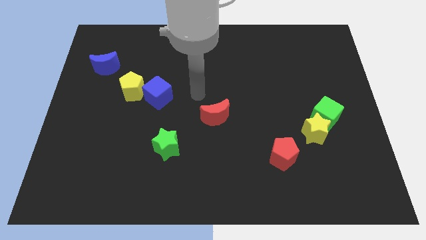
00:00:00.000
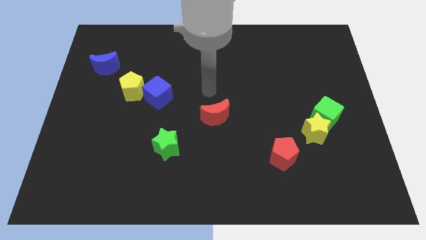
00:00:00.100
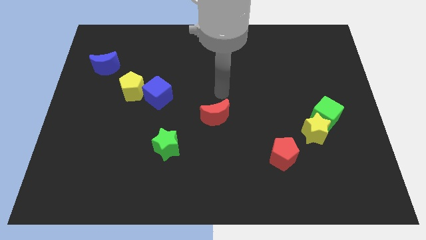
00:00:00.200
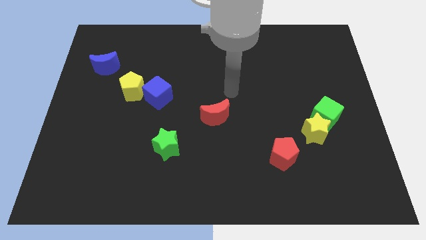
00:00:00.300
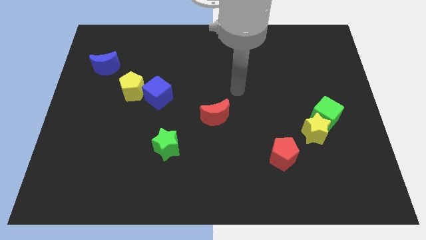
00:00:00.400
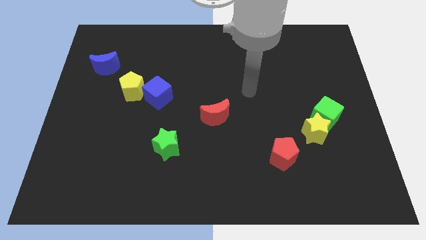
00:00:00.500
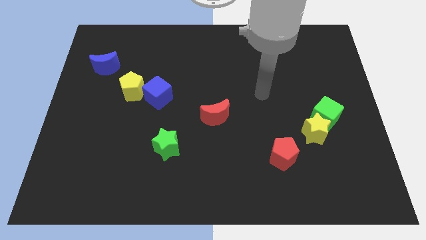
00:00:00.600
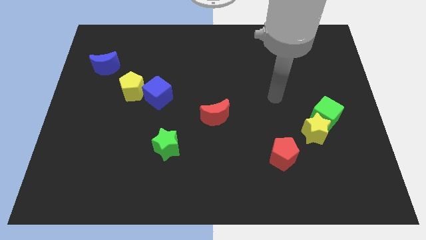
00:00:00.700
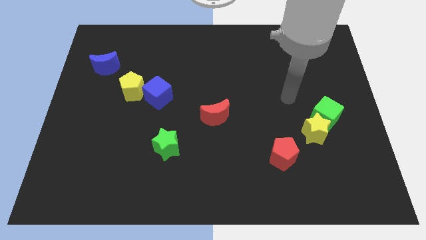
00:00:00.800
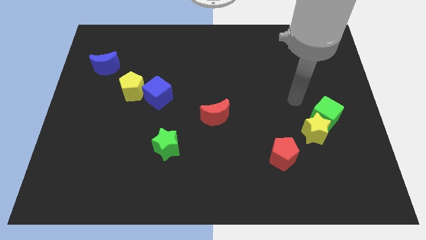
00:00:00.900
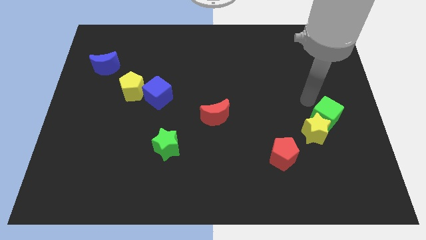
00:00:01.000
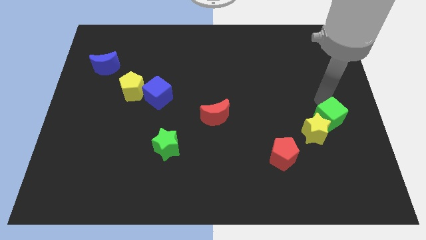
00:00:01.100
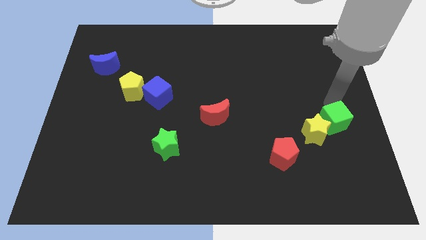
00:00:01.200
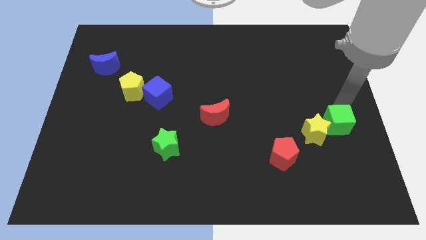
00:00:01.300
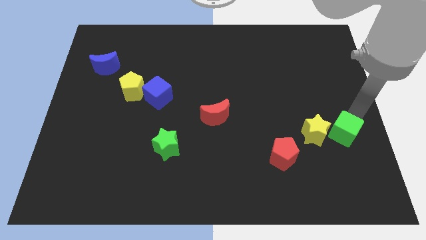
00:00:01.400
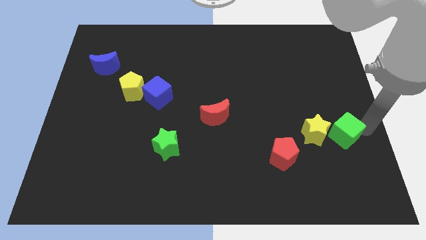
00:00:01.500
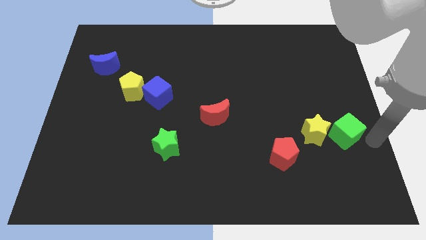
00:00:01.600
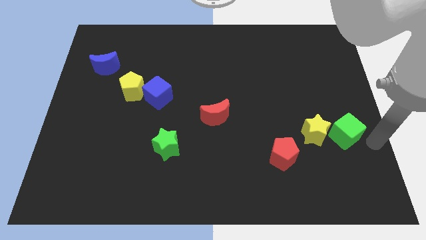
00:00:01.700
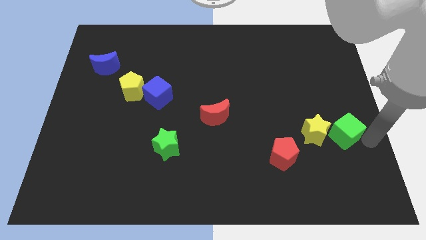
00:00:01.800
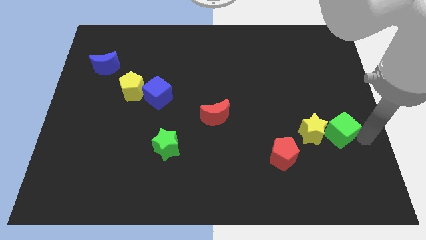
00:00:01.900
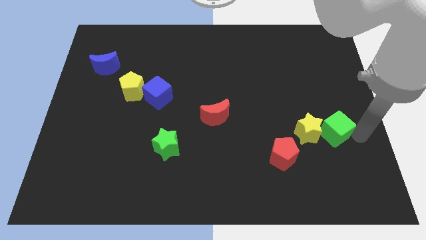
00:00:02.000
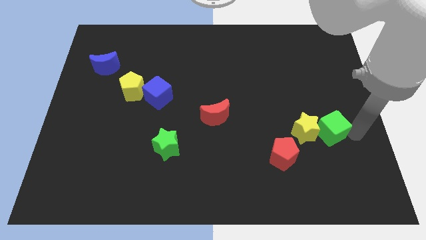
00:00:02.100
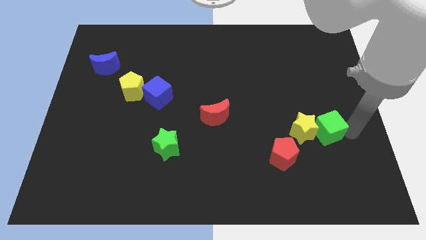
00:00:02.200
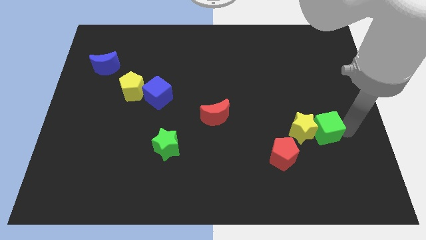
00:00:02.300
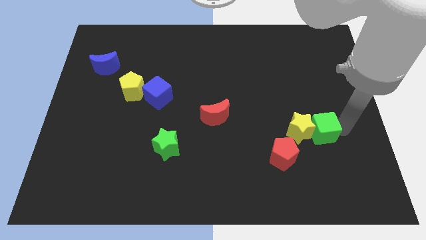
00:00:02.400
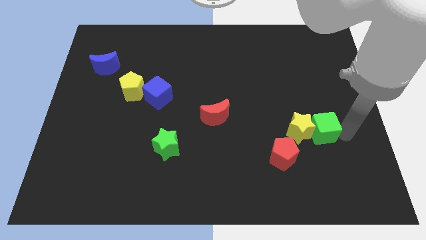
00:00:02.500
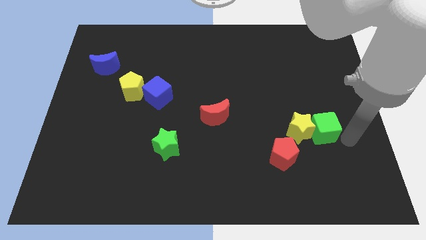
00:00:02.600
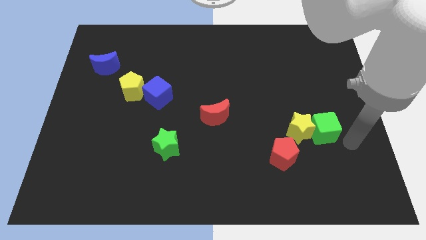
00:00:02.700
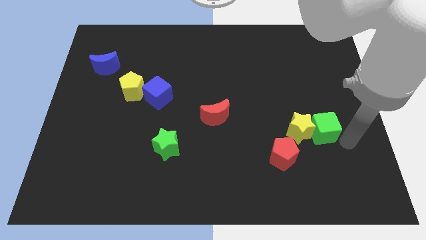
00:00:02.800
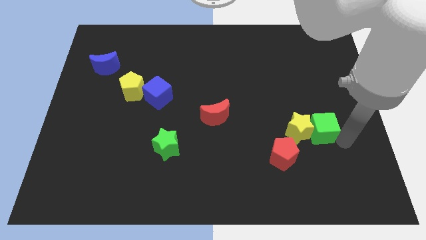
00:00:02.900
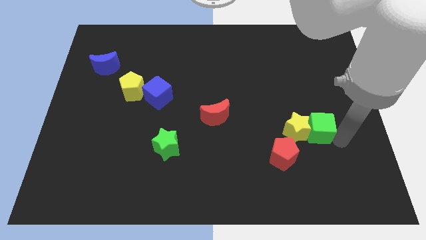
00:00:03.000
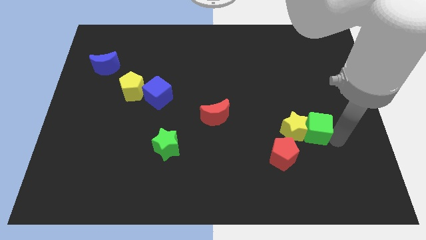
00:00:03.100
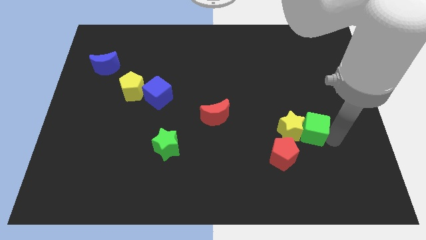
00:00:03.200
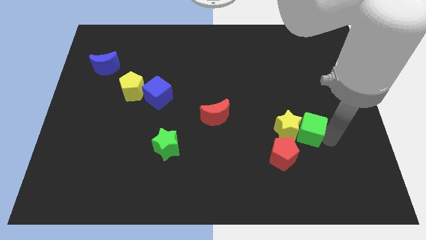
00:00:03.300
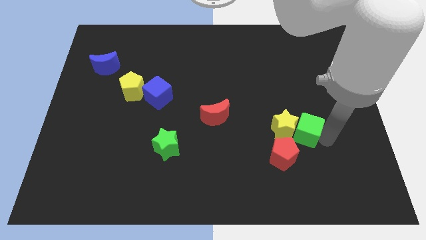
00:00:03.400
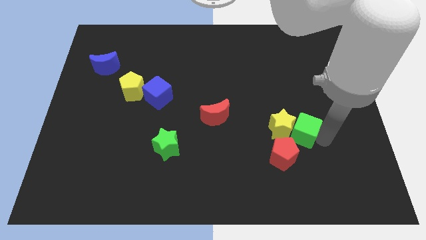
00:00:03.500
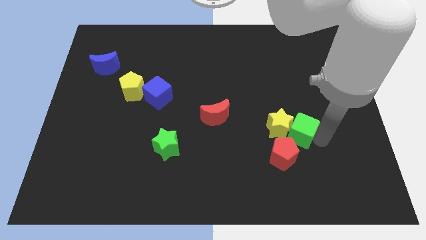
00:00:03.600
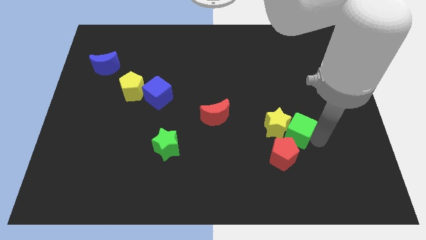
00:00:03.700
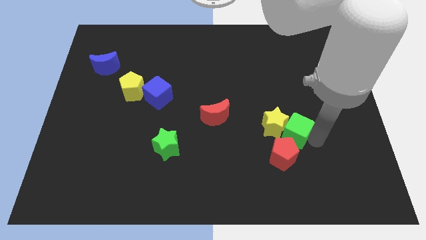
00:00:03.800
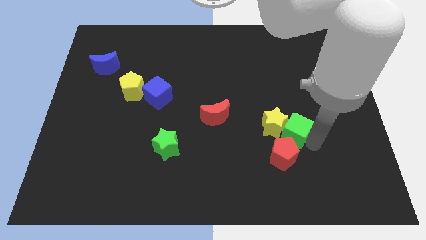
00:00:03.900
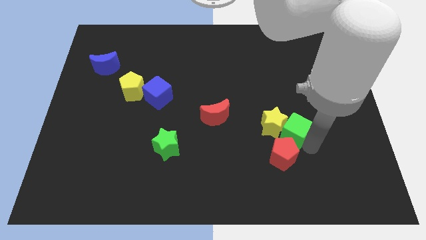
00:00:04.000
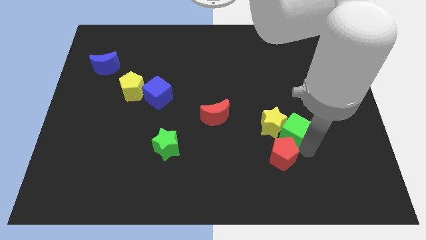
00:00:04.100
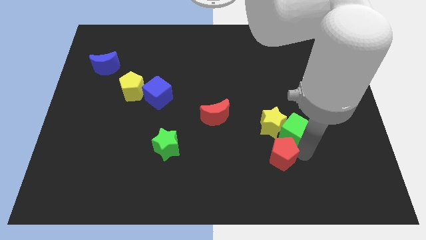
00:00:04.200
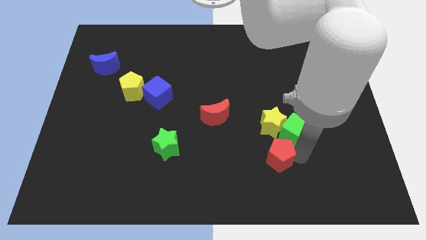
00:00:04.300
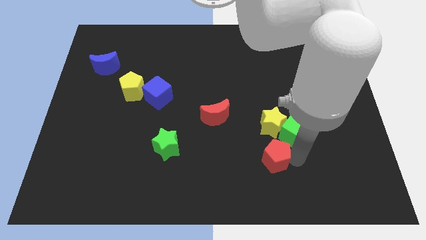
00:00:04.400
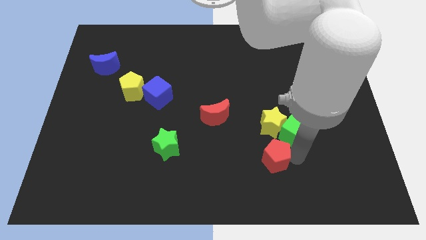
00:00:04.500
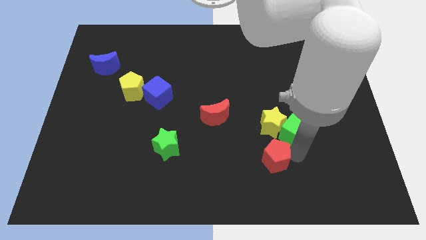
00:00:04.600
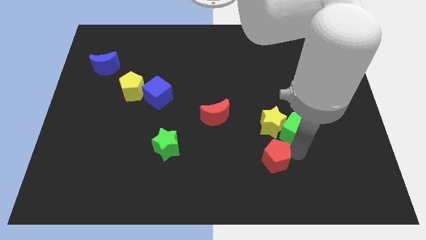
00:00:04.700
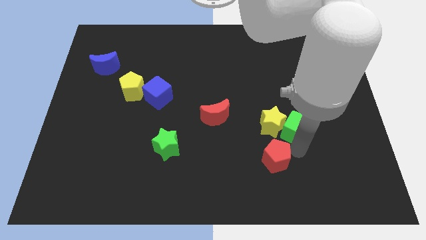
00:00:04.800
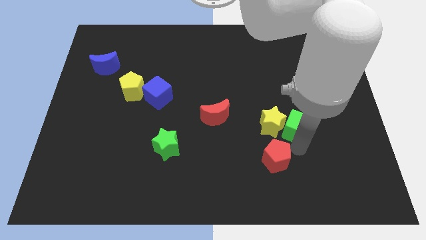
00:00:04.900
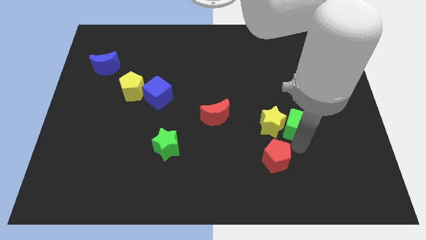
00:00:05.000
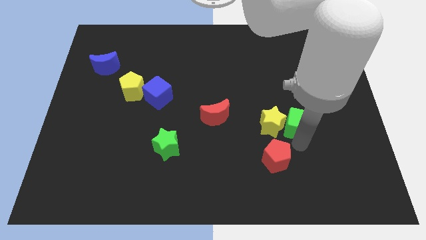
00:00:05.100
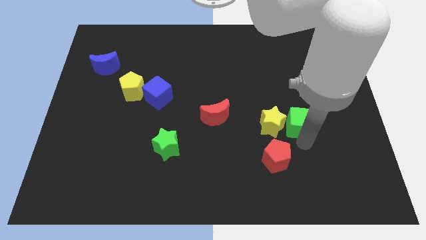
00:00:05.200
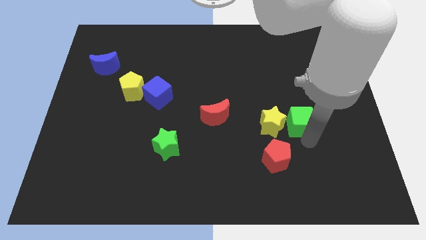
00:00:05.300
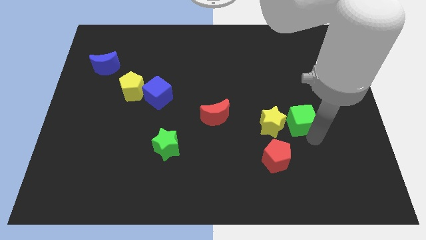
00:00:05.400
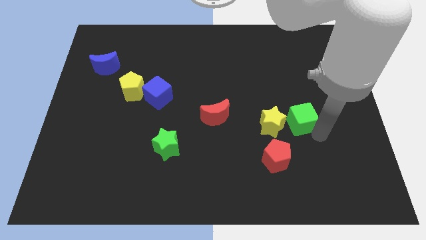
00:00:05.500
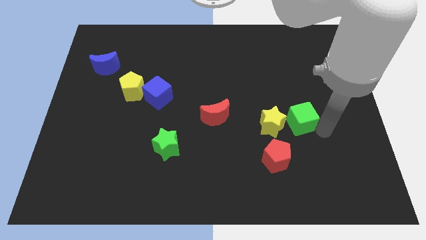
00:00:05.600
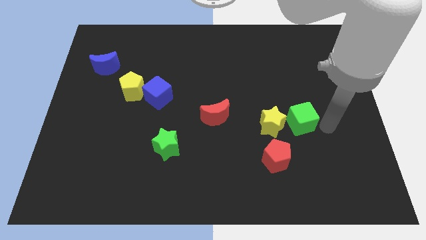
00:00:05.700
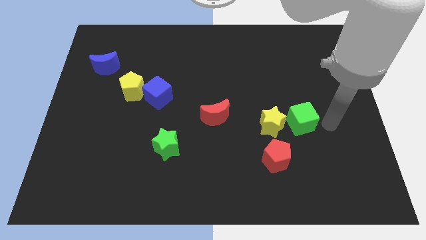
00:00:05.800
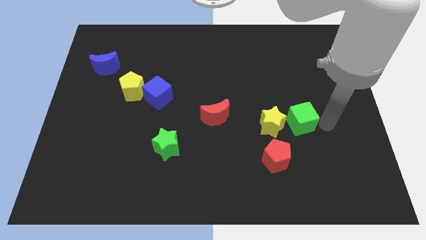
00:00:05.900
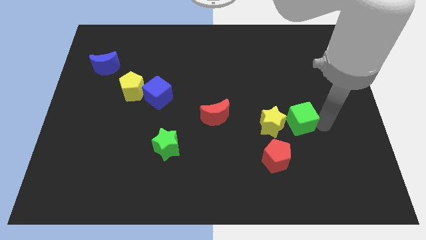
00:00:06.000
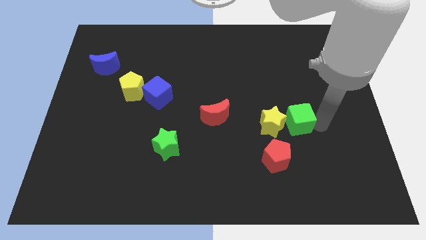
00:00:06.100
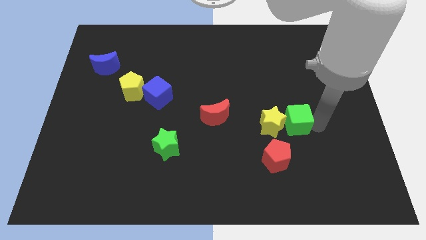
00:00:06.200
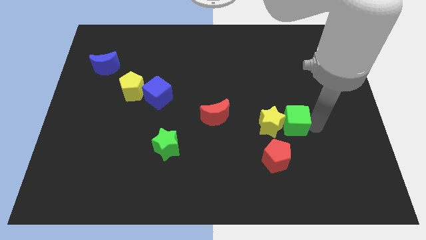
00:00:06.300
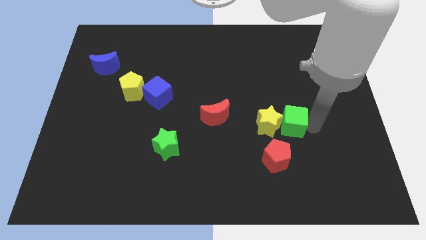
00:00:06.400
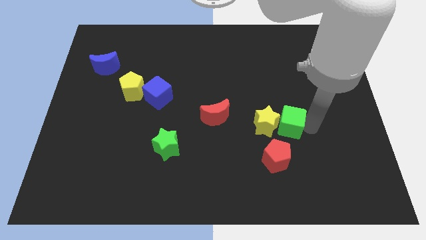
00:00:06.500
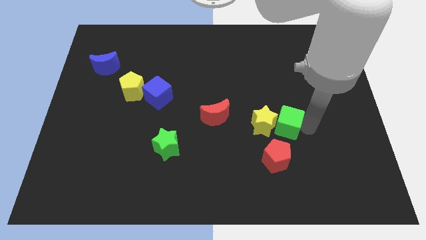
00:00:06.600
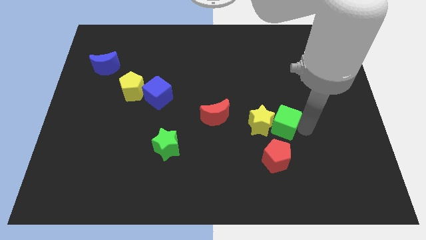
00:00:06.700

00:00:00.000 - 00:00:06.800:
put the green cube just right of the red moon
